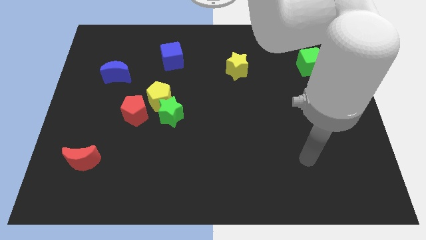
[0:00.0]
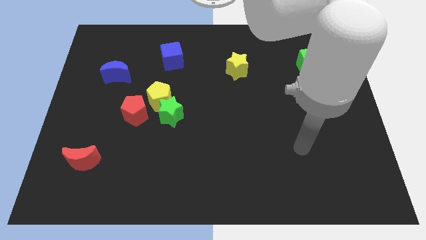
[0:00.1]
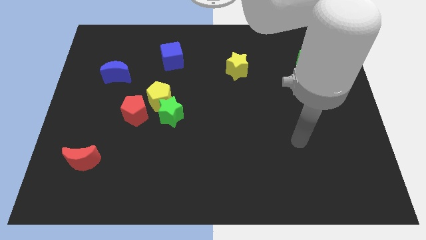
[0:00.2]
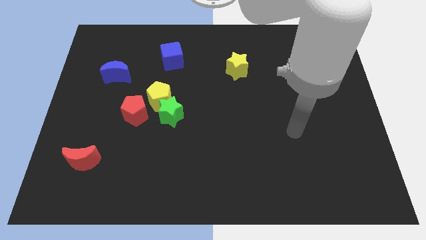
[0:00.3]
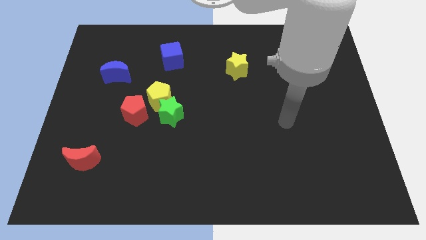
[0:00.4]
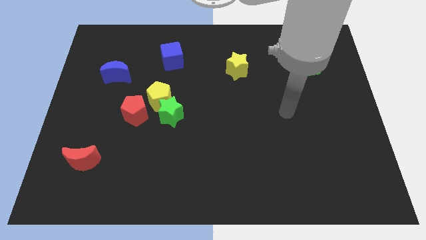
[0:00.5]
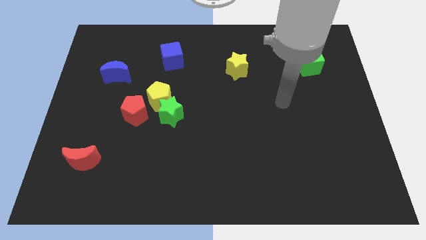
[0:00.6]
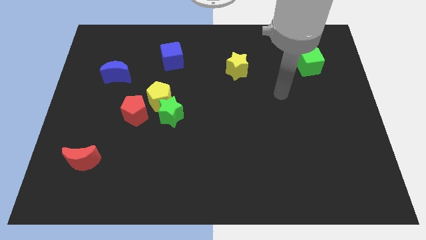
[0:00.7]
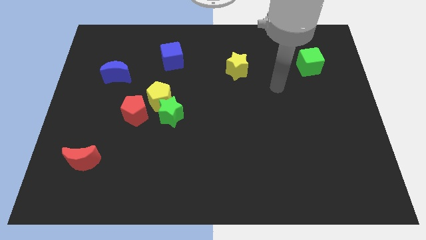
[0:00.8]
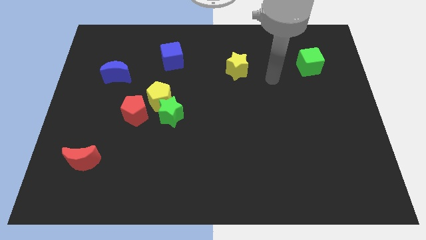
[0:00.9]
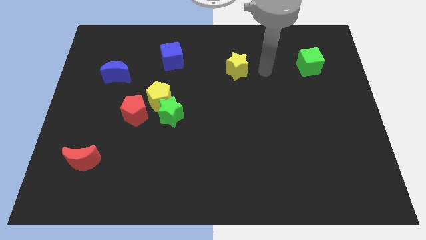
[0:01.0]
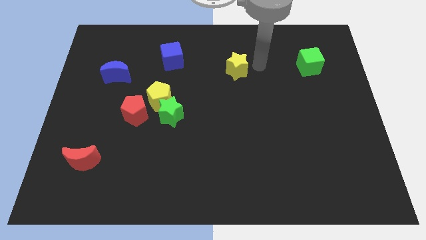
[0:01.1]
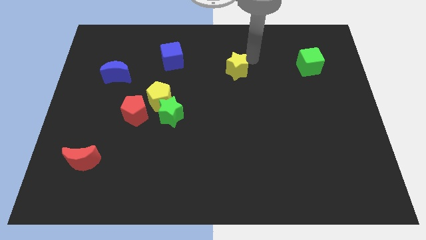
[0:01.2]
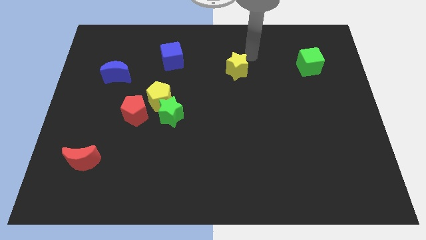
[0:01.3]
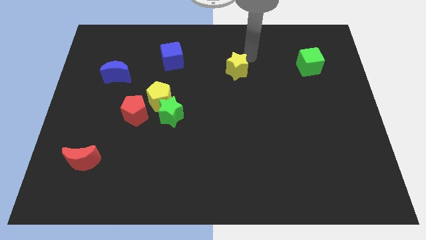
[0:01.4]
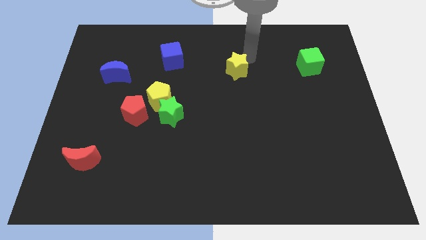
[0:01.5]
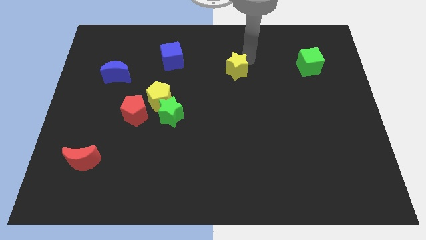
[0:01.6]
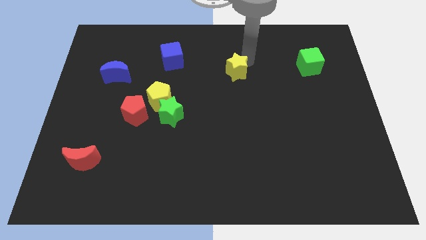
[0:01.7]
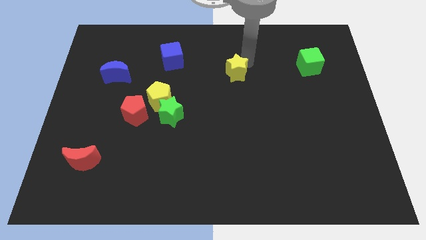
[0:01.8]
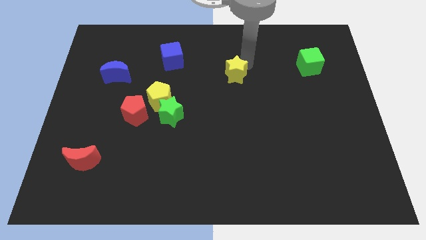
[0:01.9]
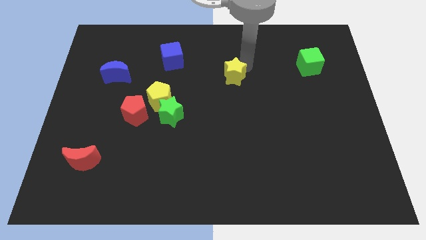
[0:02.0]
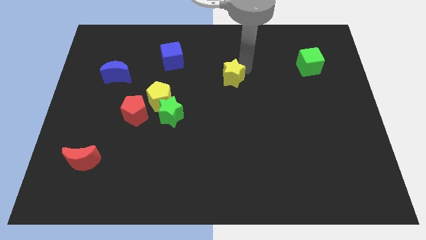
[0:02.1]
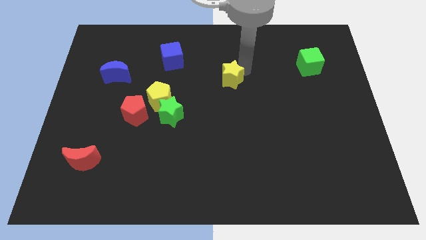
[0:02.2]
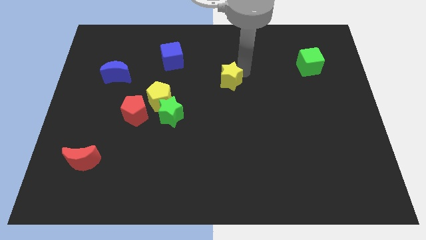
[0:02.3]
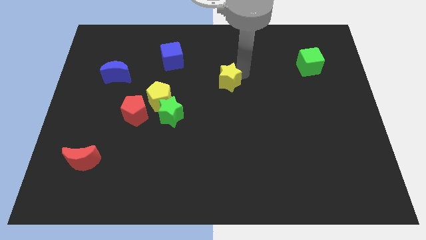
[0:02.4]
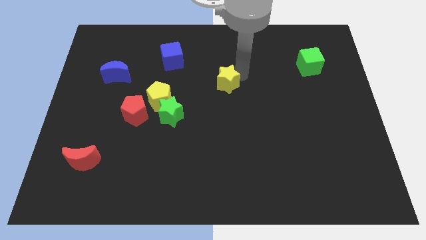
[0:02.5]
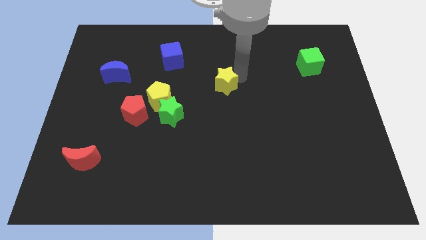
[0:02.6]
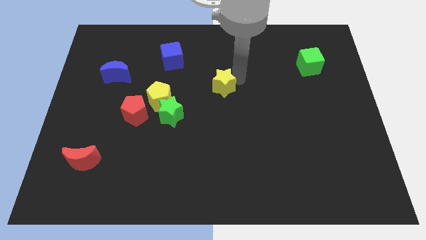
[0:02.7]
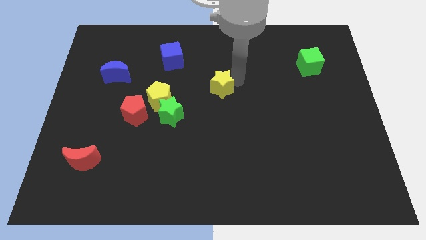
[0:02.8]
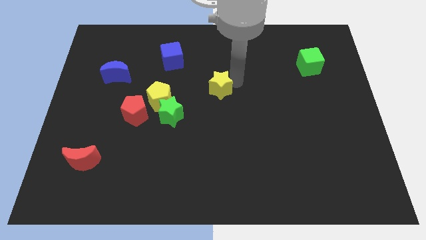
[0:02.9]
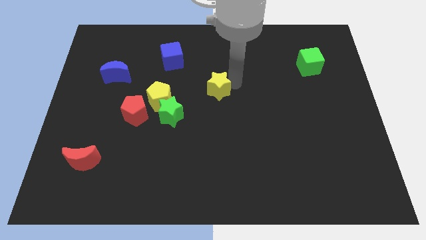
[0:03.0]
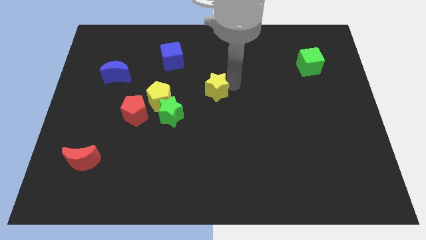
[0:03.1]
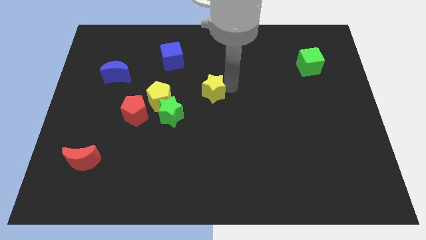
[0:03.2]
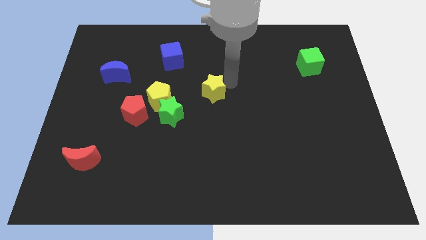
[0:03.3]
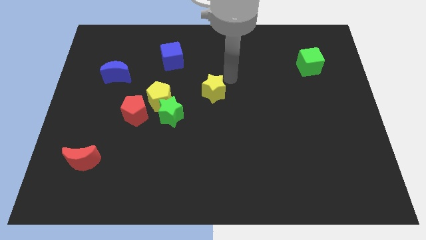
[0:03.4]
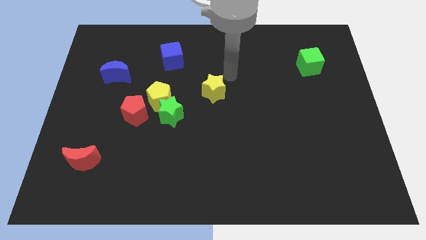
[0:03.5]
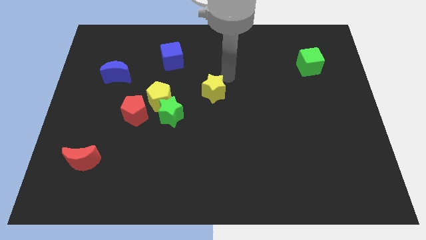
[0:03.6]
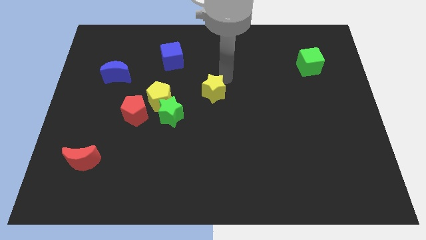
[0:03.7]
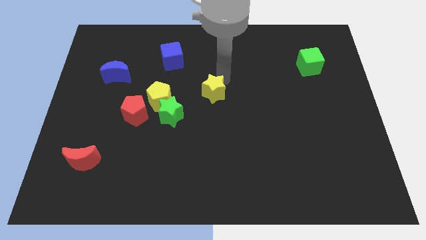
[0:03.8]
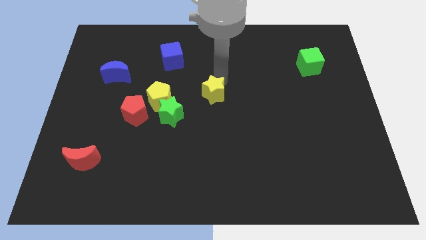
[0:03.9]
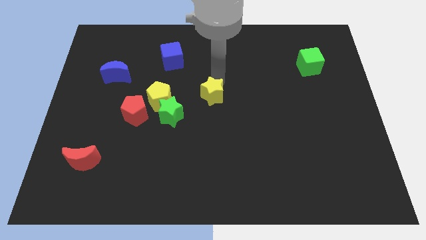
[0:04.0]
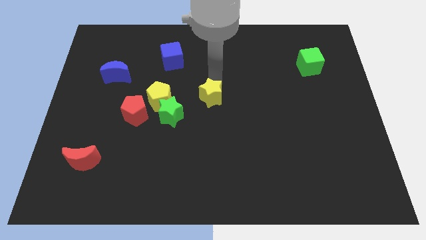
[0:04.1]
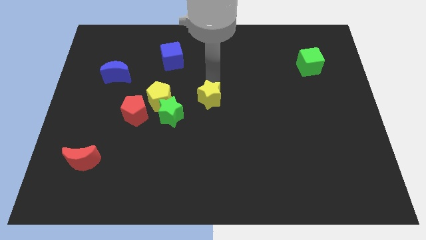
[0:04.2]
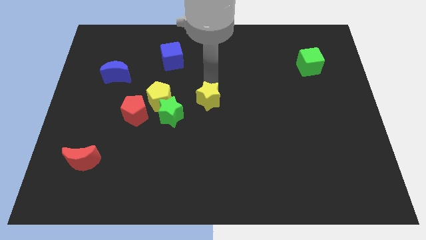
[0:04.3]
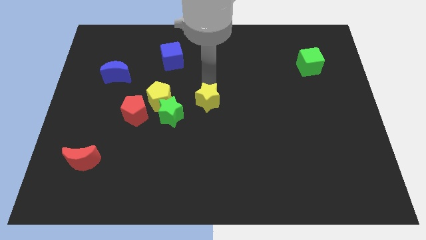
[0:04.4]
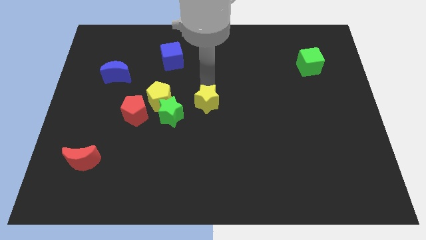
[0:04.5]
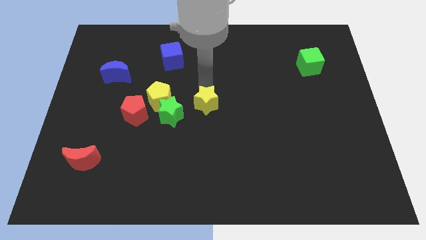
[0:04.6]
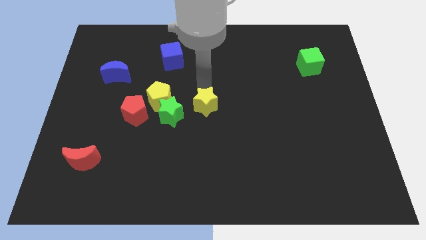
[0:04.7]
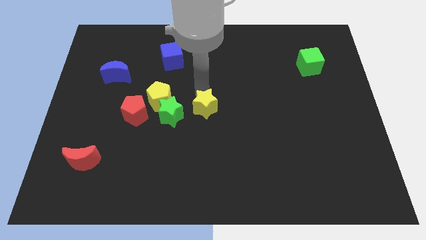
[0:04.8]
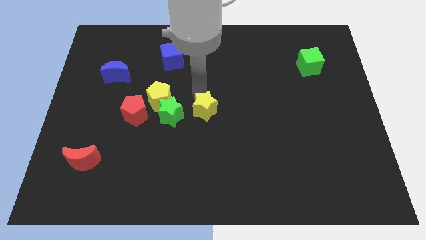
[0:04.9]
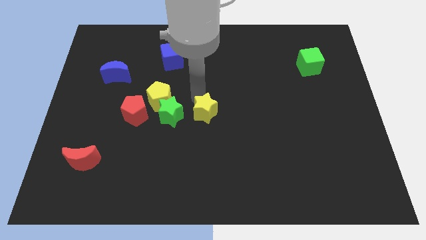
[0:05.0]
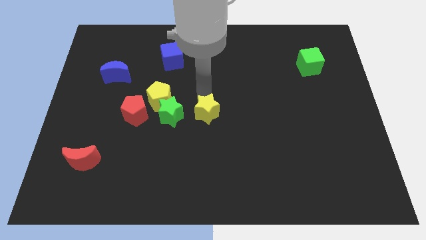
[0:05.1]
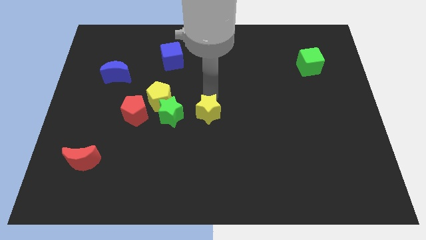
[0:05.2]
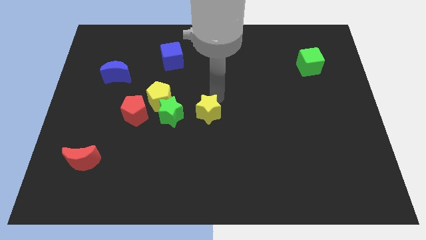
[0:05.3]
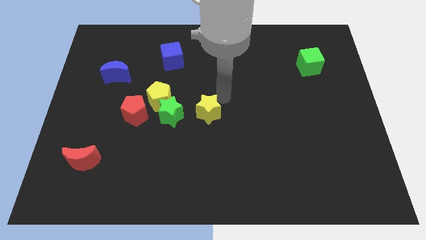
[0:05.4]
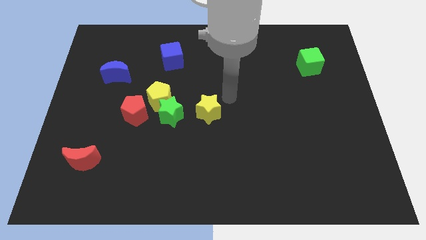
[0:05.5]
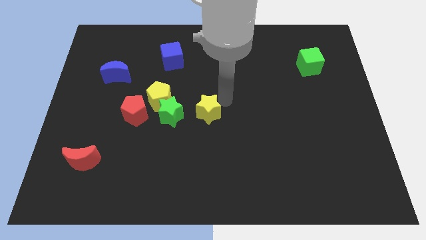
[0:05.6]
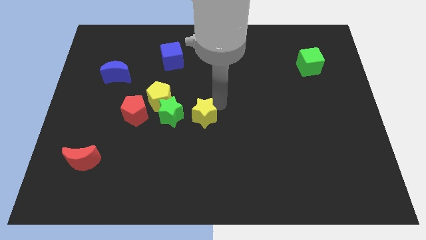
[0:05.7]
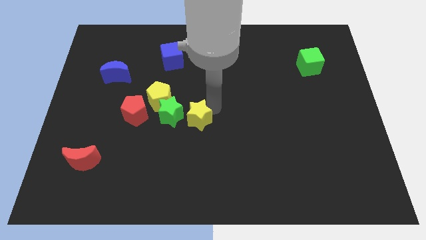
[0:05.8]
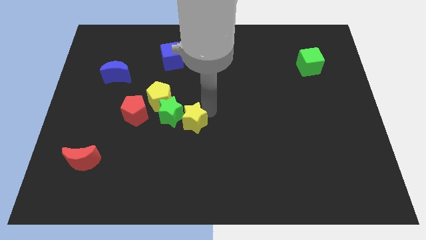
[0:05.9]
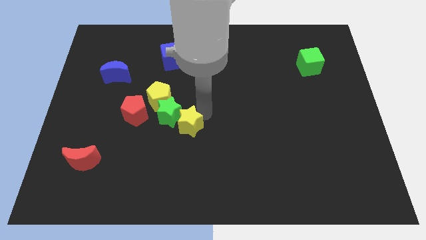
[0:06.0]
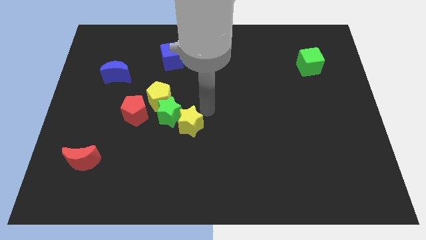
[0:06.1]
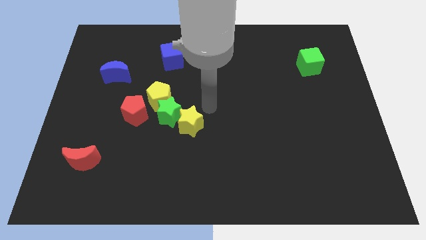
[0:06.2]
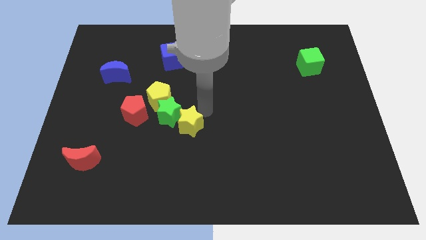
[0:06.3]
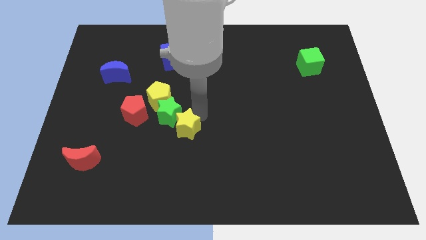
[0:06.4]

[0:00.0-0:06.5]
push the yellow star diagonally downwards and left

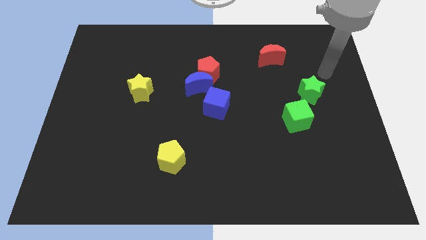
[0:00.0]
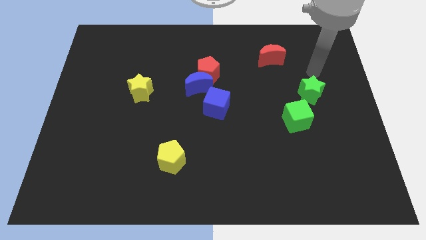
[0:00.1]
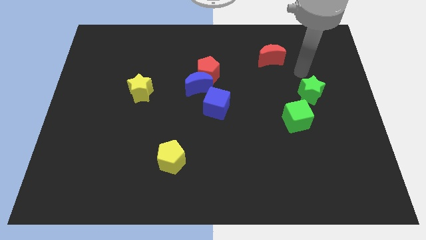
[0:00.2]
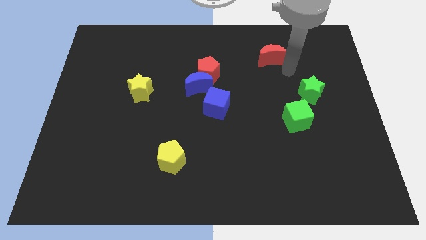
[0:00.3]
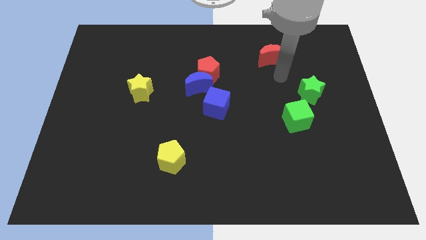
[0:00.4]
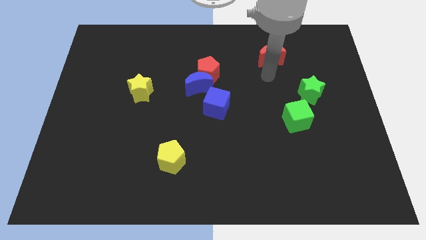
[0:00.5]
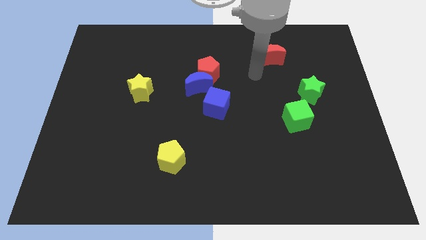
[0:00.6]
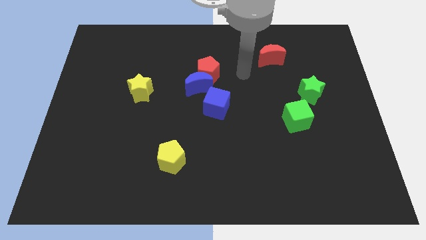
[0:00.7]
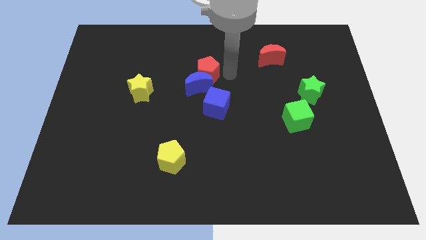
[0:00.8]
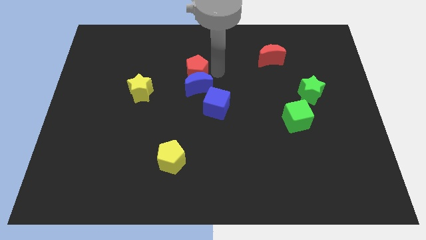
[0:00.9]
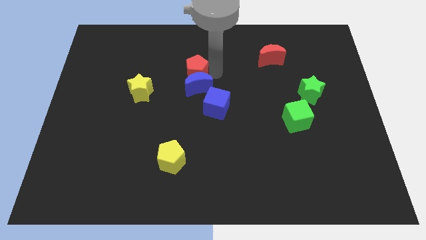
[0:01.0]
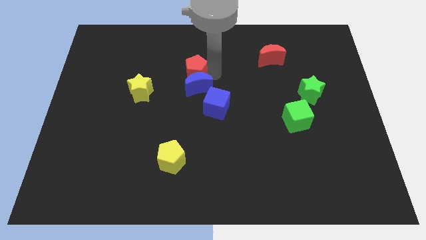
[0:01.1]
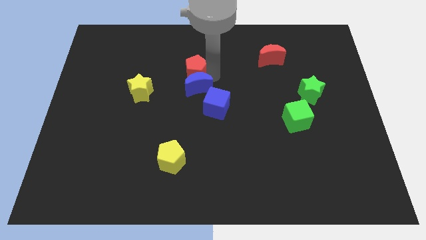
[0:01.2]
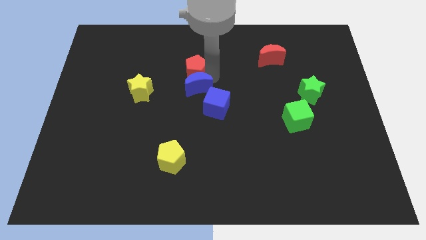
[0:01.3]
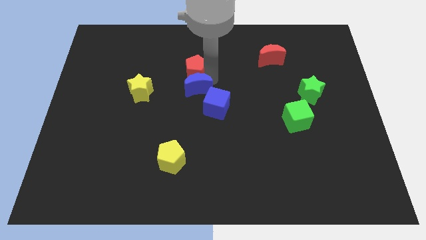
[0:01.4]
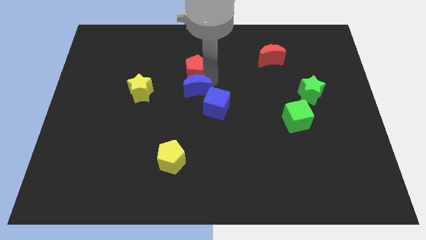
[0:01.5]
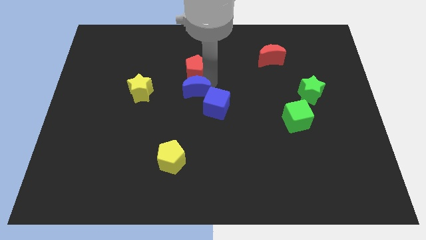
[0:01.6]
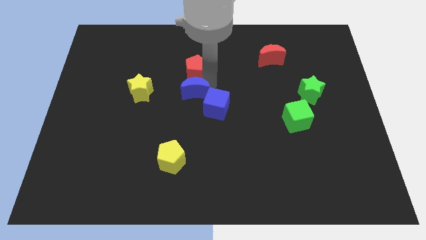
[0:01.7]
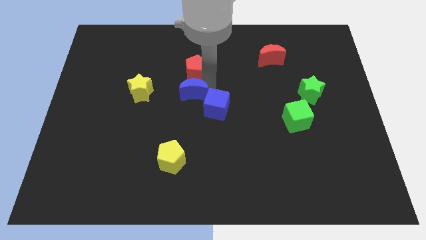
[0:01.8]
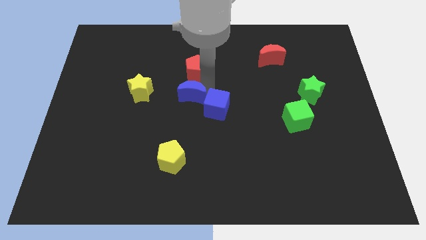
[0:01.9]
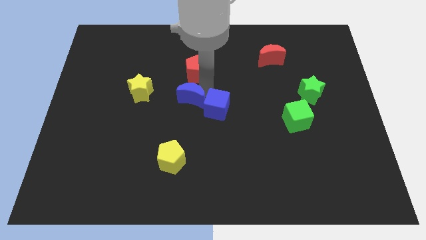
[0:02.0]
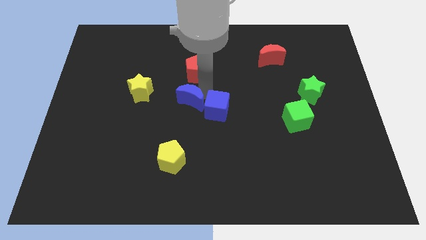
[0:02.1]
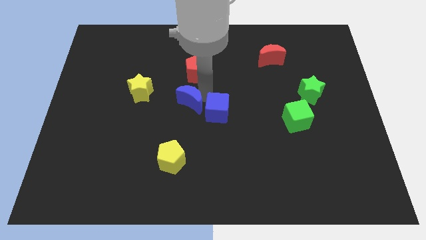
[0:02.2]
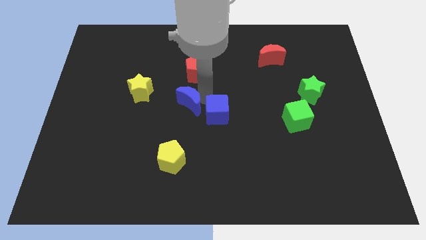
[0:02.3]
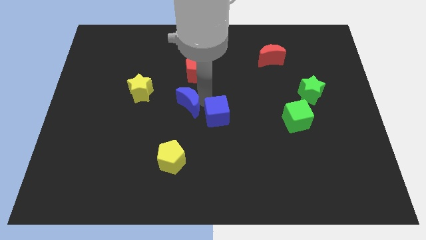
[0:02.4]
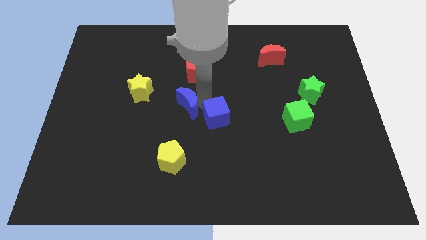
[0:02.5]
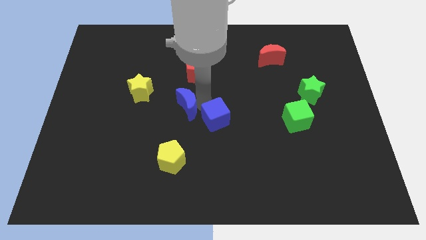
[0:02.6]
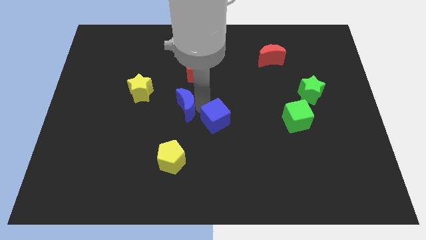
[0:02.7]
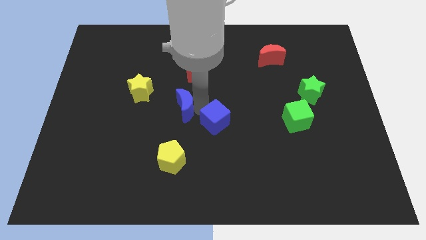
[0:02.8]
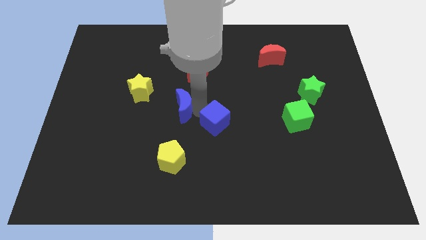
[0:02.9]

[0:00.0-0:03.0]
slightly slide the blue moon downwards and to the left
